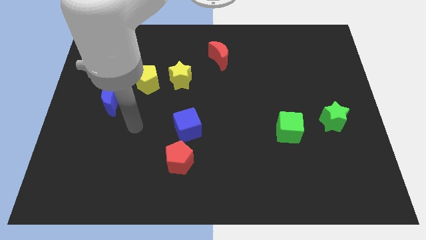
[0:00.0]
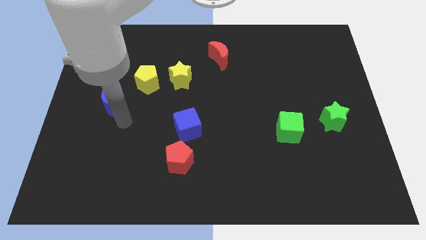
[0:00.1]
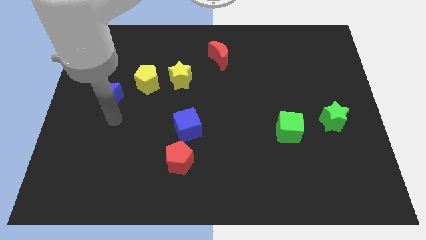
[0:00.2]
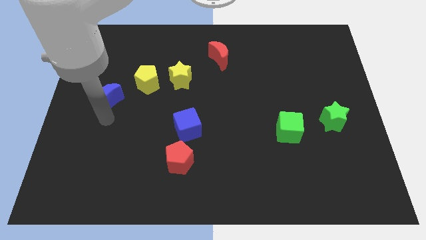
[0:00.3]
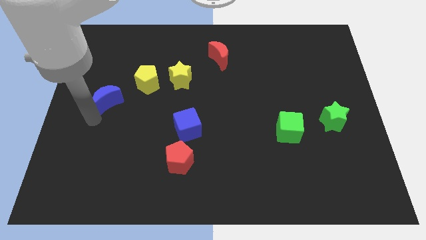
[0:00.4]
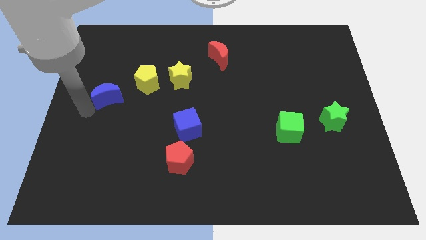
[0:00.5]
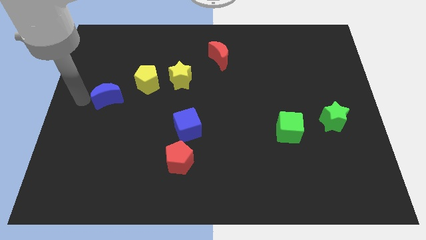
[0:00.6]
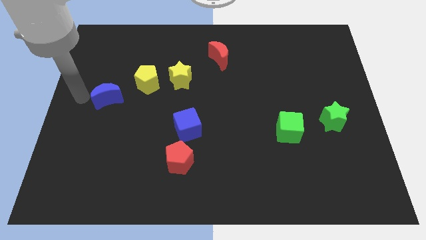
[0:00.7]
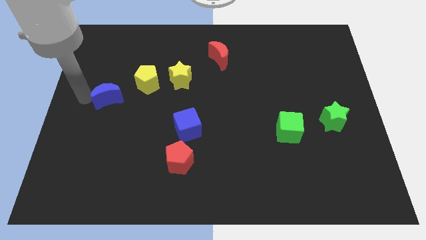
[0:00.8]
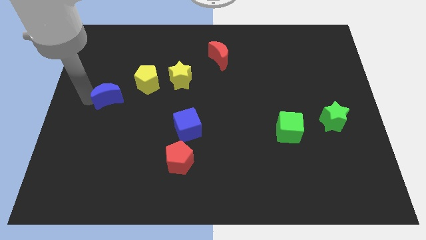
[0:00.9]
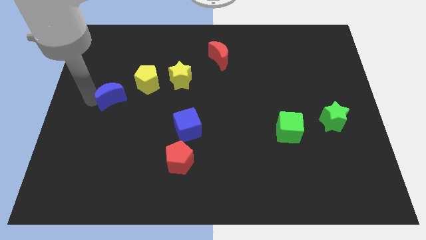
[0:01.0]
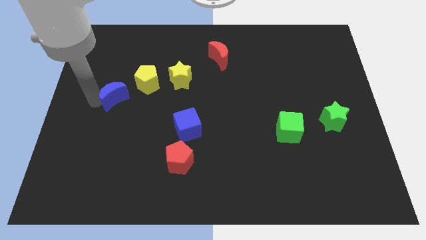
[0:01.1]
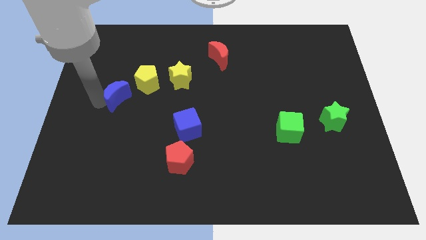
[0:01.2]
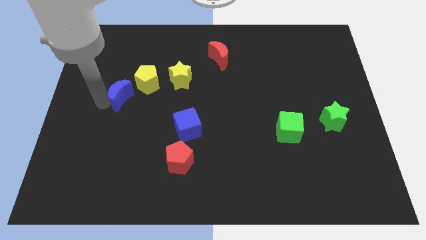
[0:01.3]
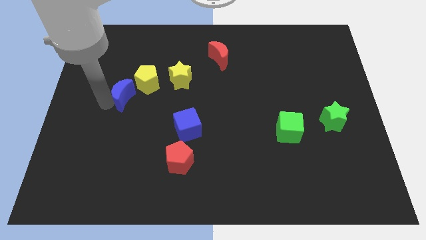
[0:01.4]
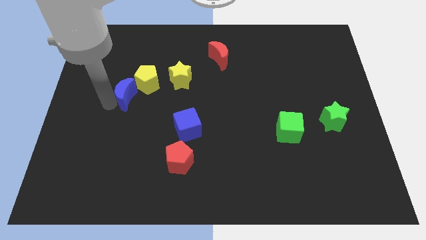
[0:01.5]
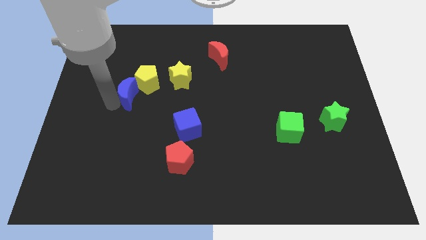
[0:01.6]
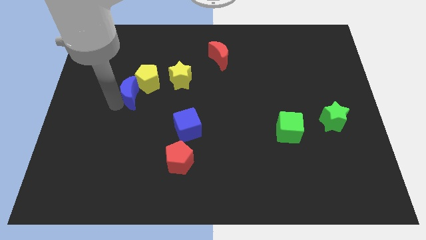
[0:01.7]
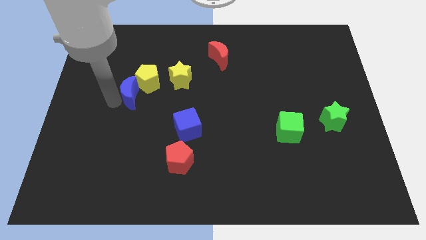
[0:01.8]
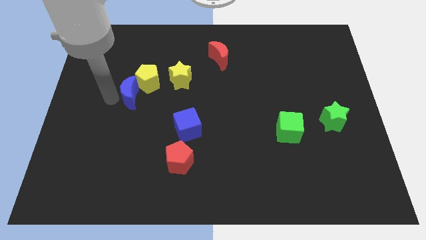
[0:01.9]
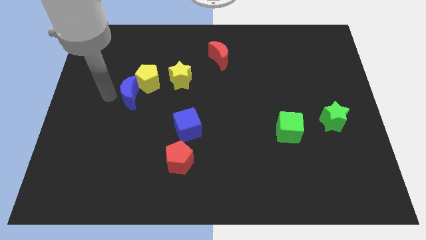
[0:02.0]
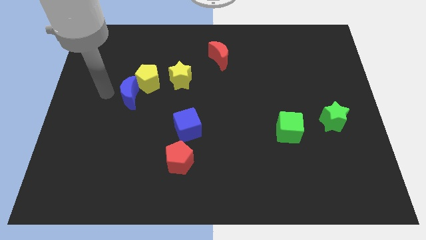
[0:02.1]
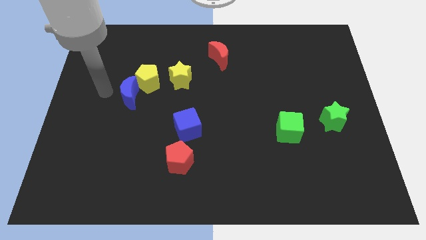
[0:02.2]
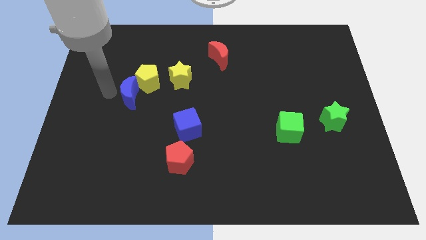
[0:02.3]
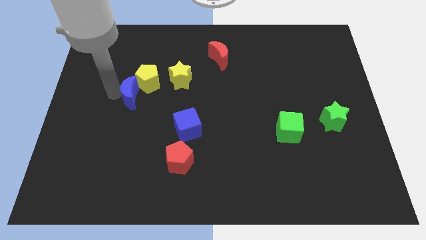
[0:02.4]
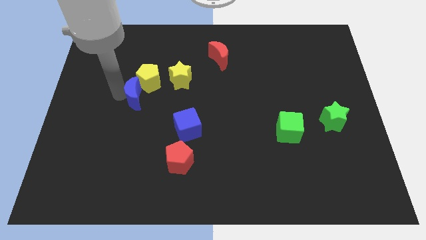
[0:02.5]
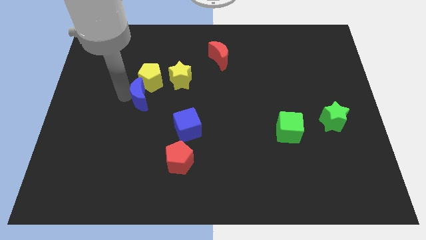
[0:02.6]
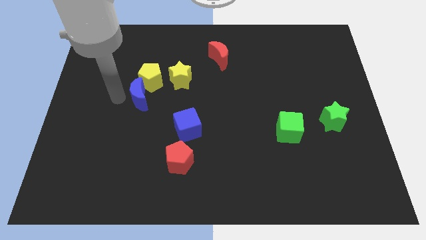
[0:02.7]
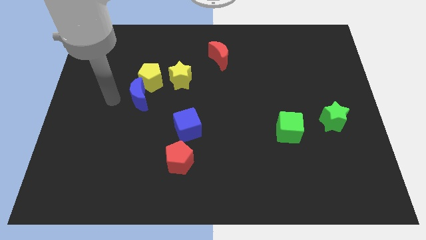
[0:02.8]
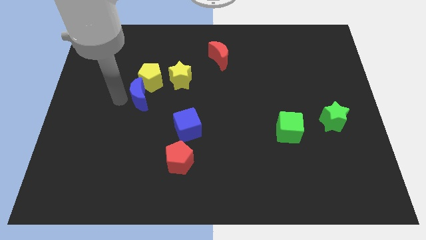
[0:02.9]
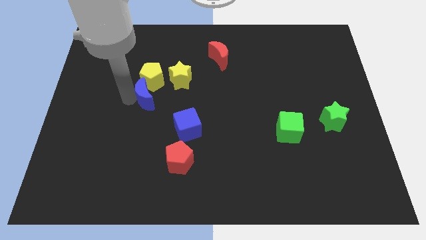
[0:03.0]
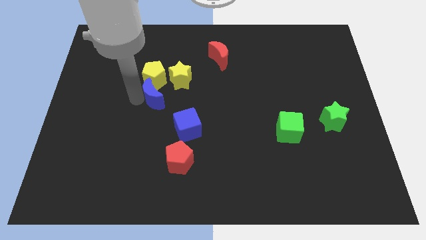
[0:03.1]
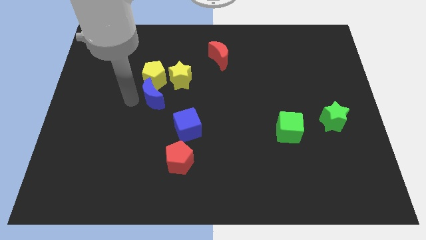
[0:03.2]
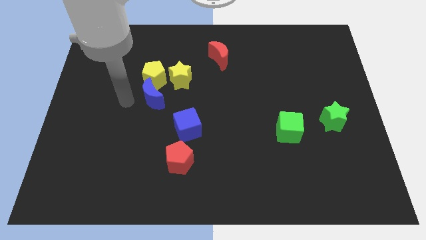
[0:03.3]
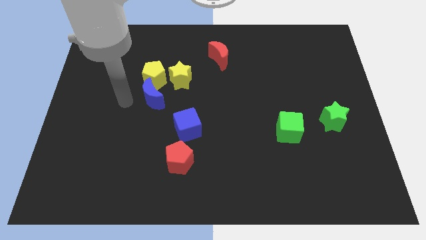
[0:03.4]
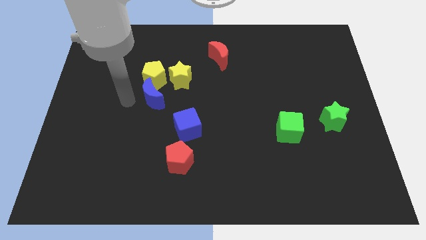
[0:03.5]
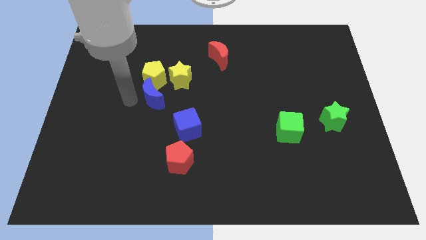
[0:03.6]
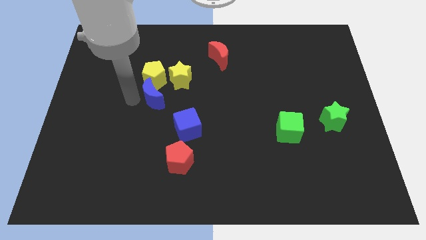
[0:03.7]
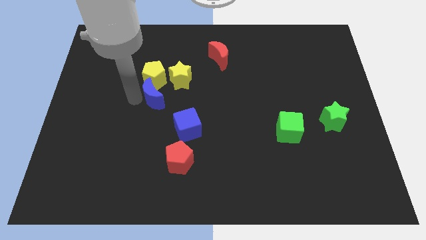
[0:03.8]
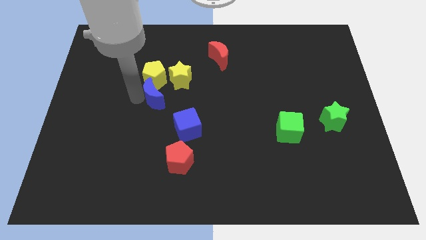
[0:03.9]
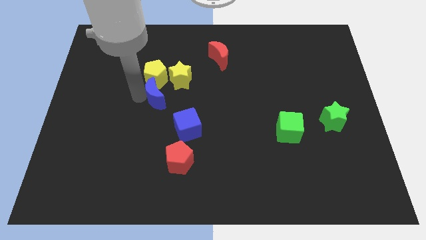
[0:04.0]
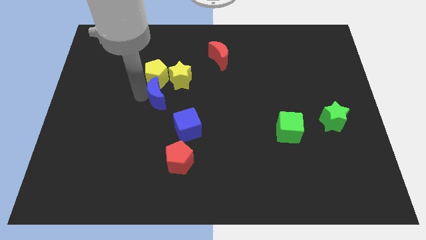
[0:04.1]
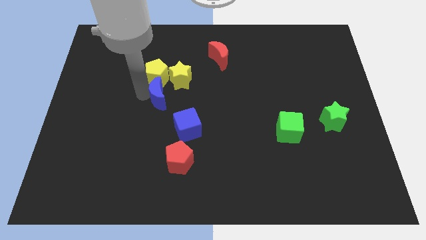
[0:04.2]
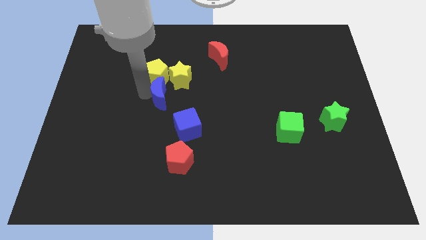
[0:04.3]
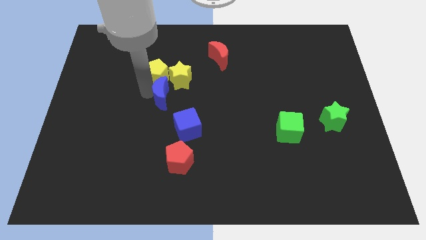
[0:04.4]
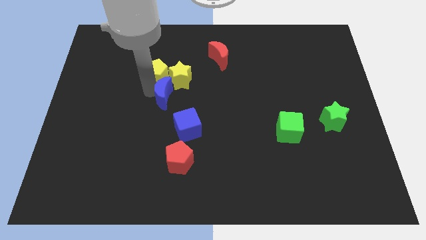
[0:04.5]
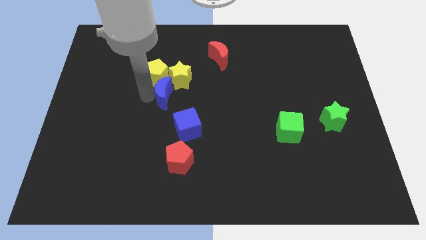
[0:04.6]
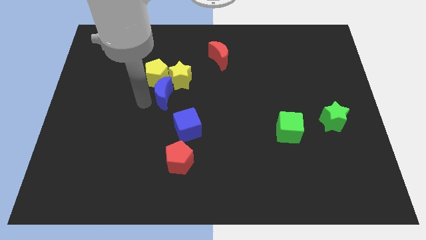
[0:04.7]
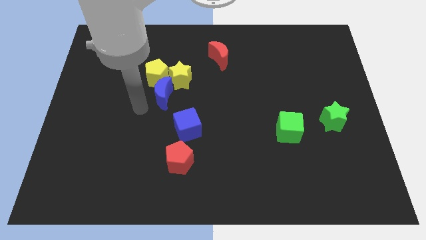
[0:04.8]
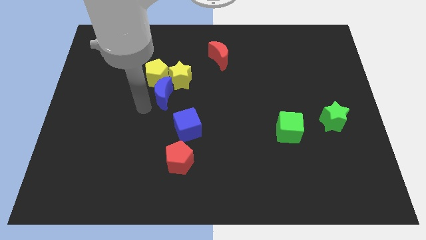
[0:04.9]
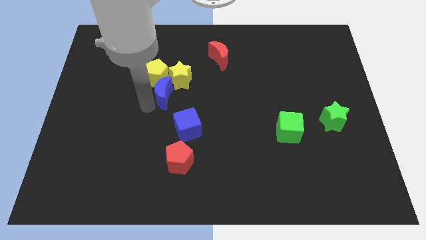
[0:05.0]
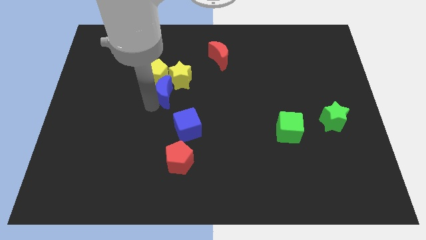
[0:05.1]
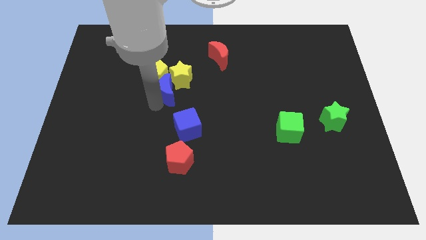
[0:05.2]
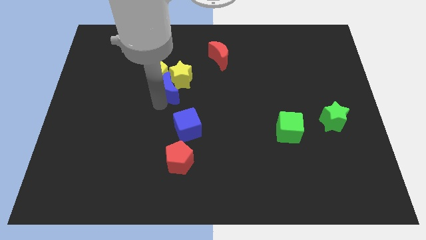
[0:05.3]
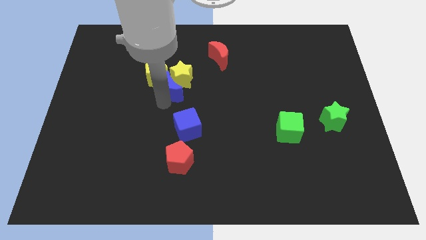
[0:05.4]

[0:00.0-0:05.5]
move the blue moon to the right of the yellow pentagon

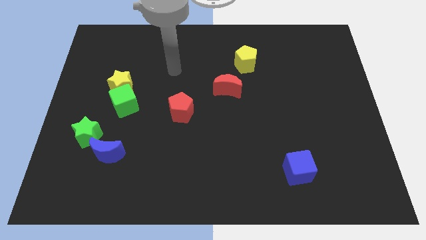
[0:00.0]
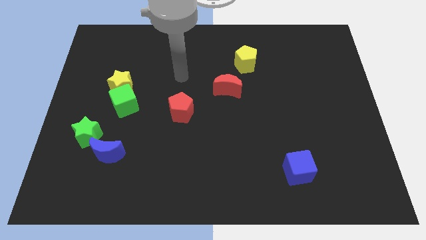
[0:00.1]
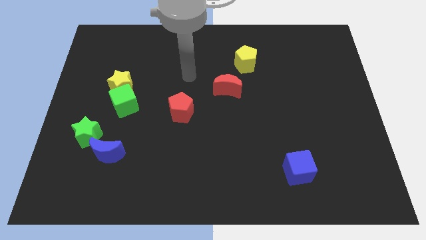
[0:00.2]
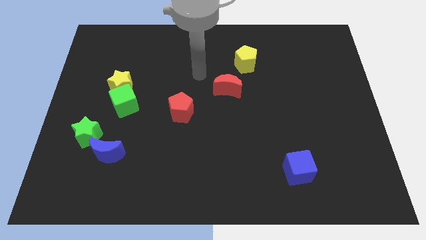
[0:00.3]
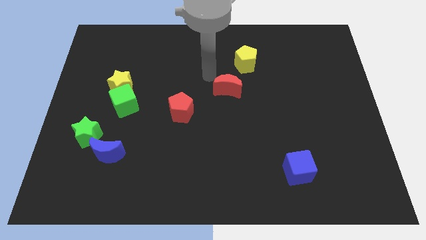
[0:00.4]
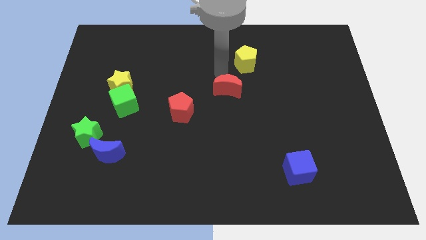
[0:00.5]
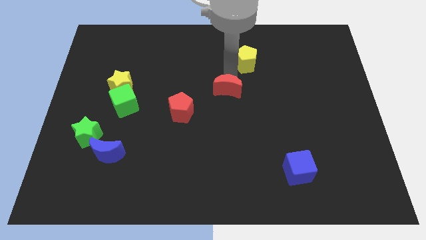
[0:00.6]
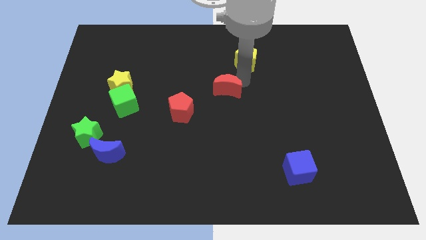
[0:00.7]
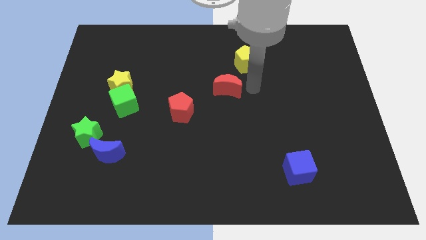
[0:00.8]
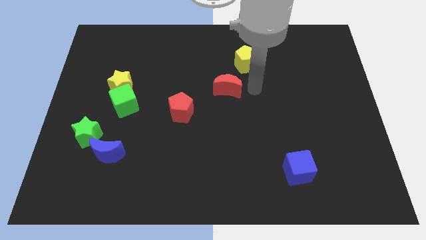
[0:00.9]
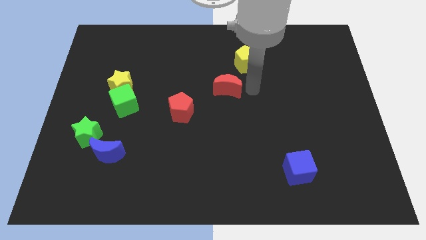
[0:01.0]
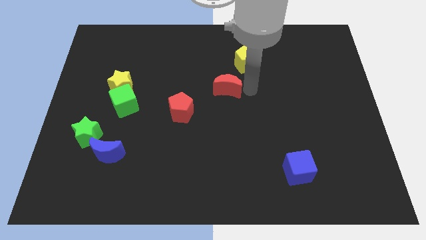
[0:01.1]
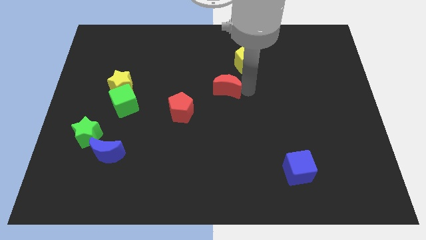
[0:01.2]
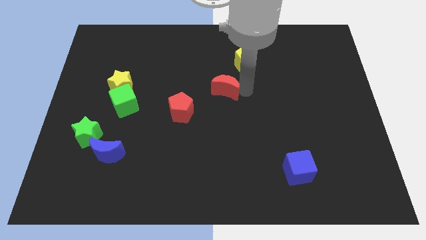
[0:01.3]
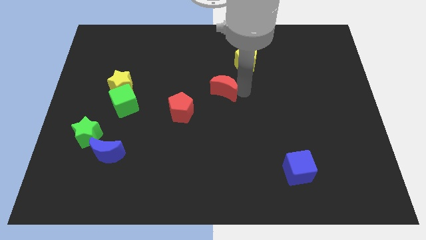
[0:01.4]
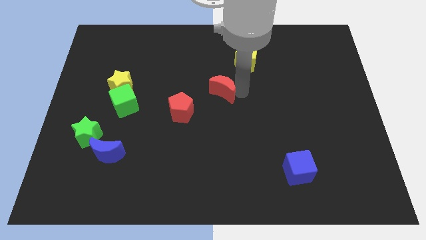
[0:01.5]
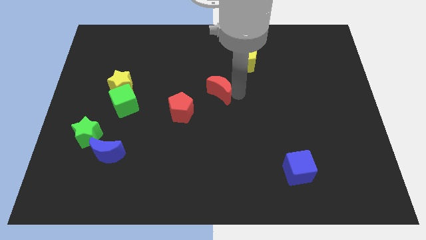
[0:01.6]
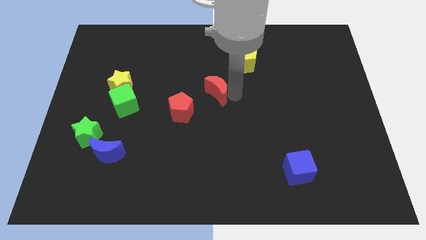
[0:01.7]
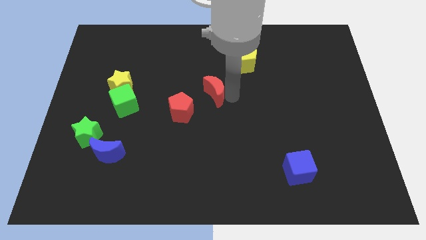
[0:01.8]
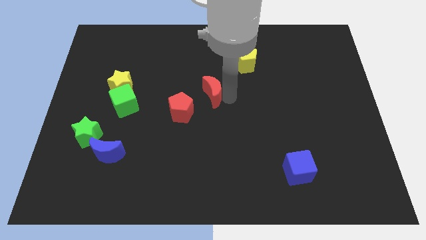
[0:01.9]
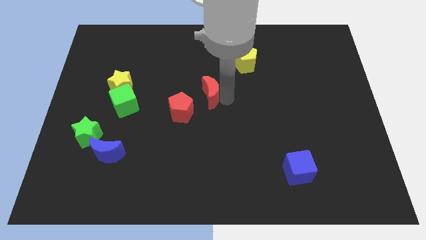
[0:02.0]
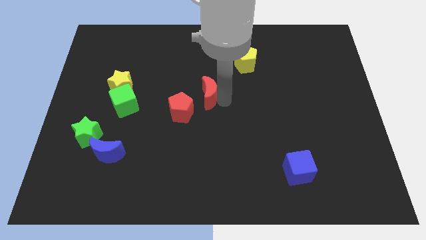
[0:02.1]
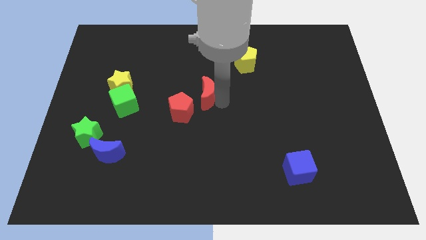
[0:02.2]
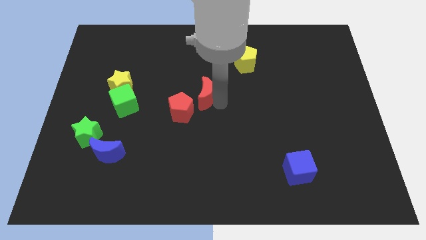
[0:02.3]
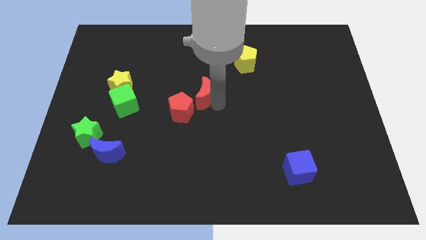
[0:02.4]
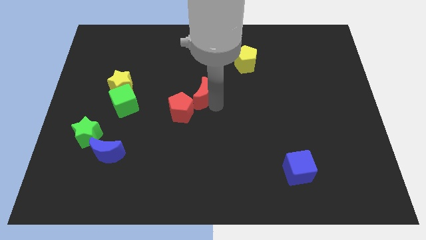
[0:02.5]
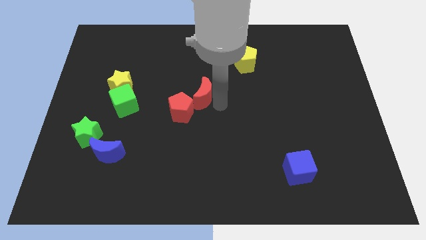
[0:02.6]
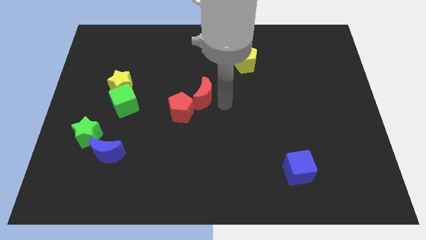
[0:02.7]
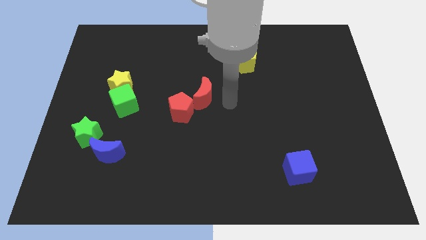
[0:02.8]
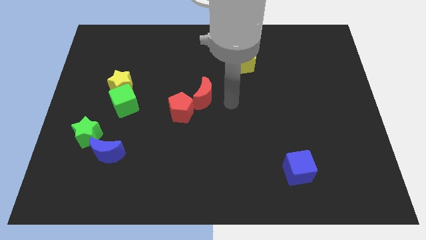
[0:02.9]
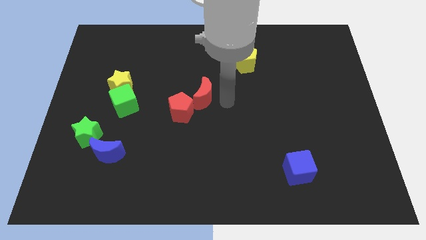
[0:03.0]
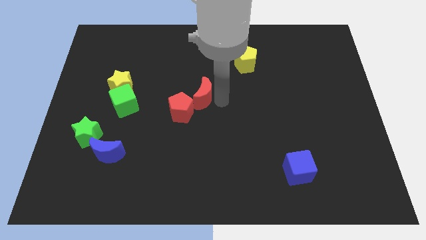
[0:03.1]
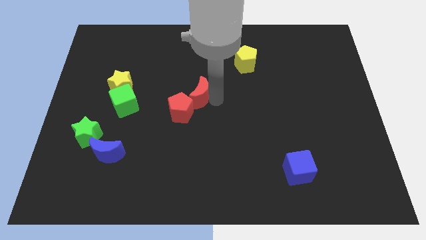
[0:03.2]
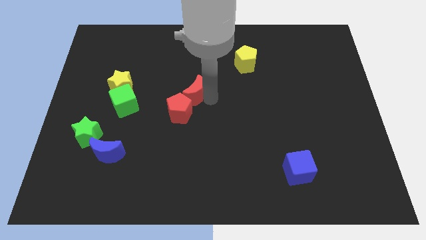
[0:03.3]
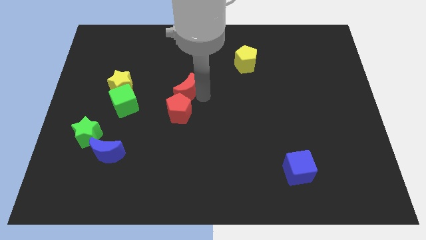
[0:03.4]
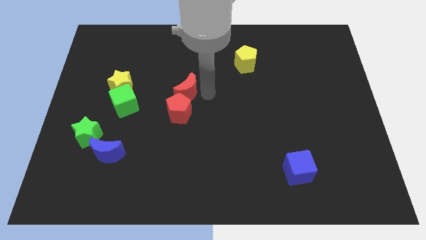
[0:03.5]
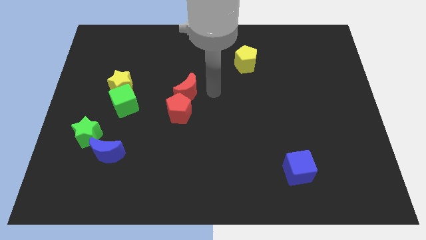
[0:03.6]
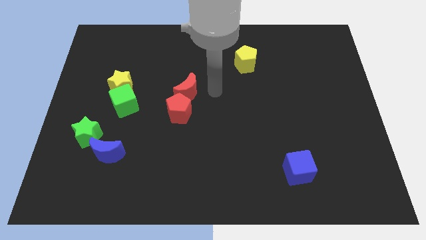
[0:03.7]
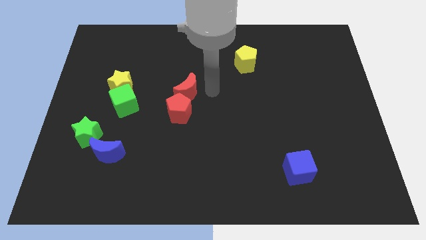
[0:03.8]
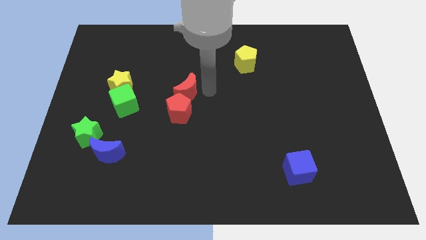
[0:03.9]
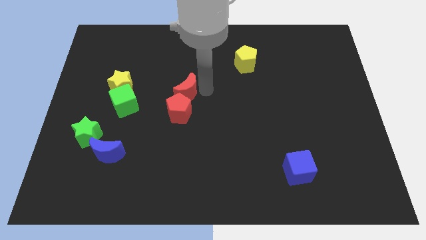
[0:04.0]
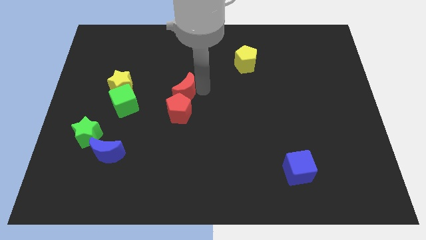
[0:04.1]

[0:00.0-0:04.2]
put the red moon to the top left side of the red pentagon
